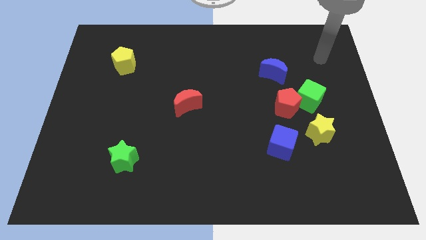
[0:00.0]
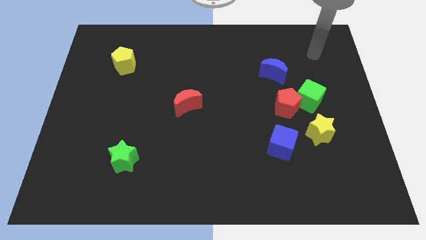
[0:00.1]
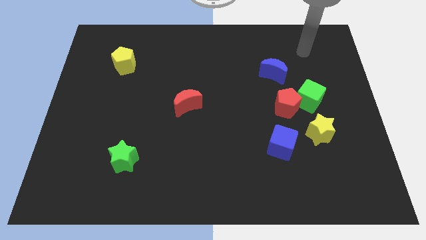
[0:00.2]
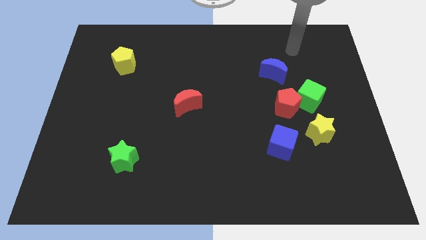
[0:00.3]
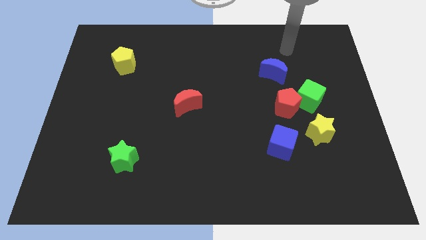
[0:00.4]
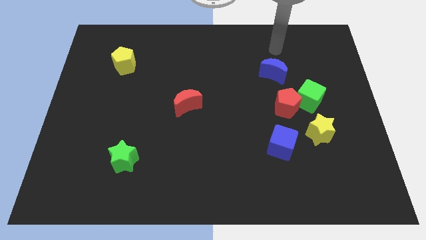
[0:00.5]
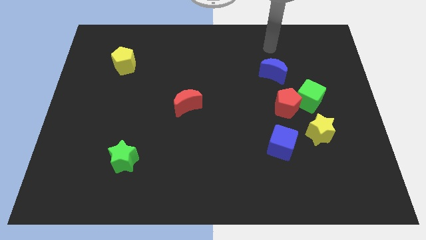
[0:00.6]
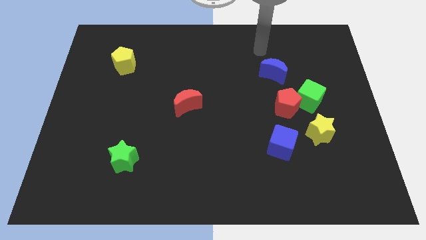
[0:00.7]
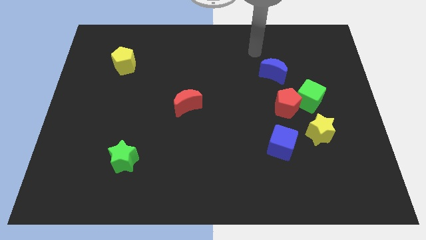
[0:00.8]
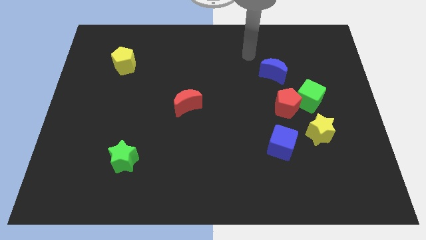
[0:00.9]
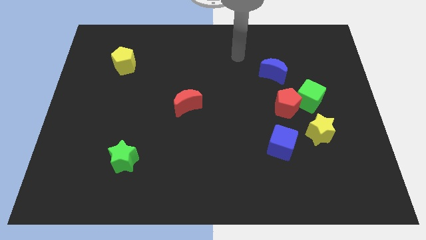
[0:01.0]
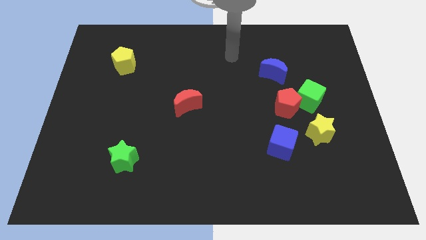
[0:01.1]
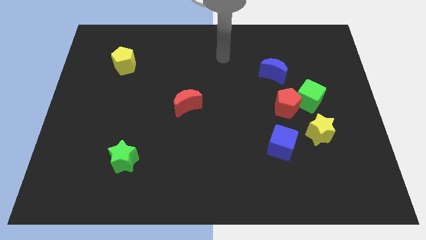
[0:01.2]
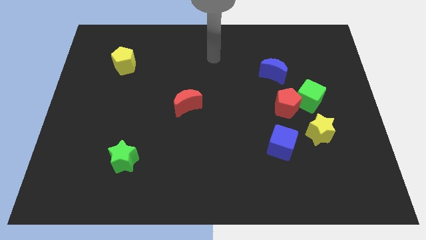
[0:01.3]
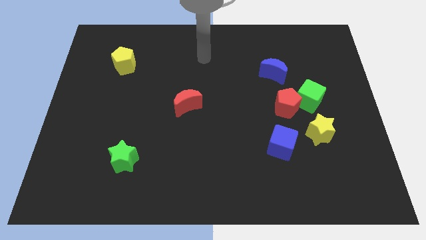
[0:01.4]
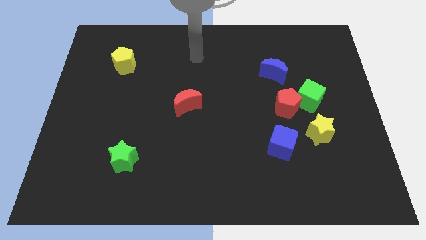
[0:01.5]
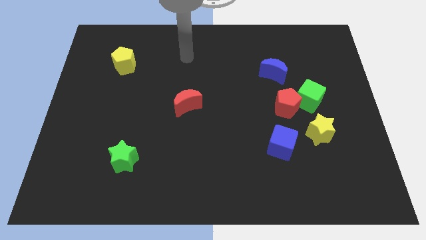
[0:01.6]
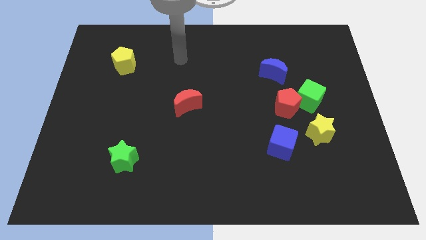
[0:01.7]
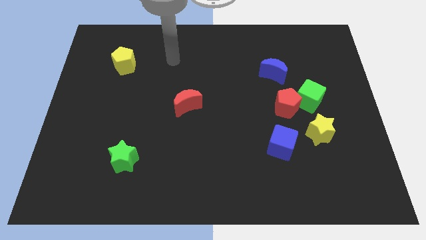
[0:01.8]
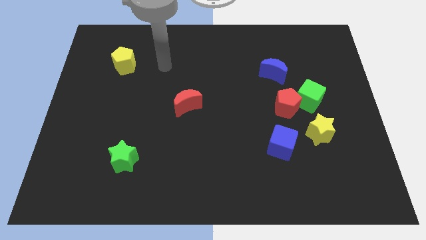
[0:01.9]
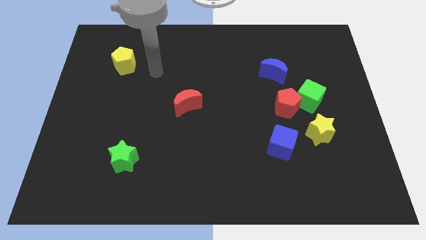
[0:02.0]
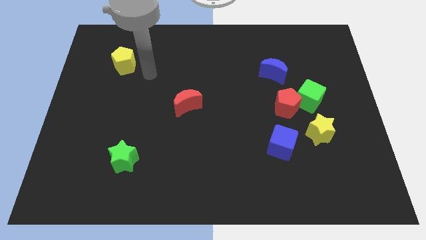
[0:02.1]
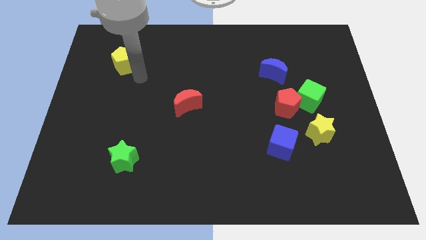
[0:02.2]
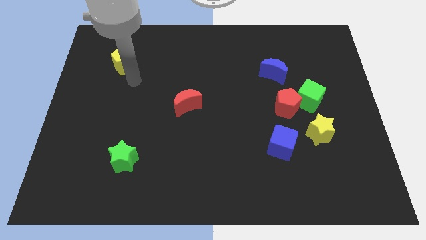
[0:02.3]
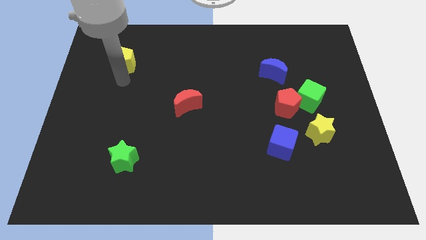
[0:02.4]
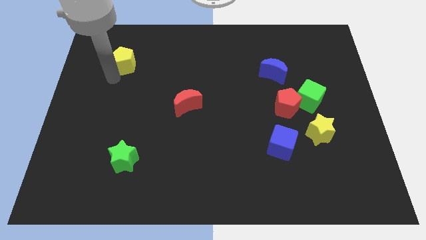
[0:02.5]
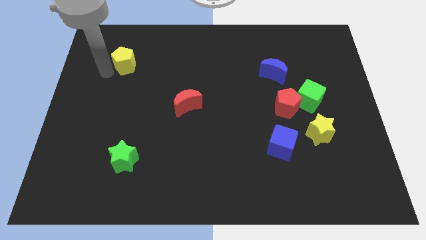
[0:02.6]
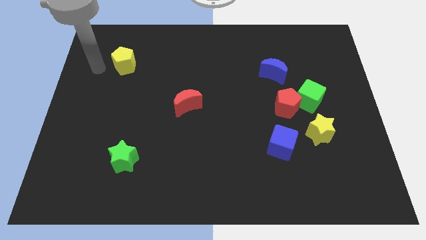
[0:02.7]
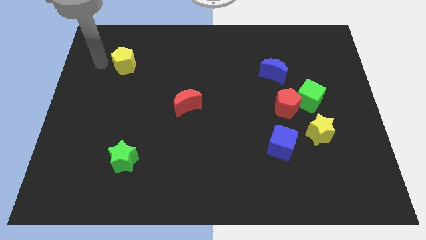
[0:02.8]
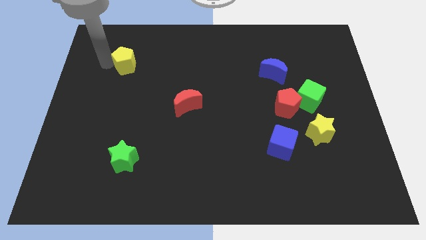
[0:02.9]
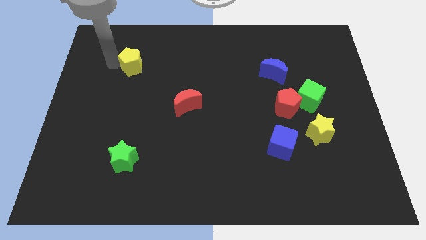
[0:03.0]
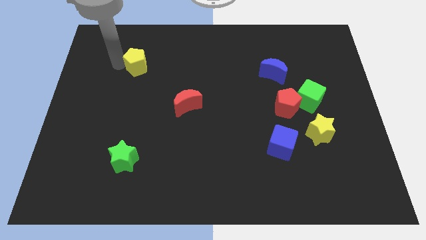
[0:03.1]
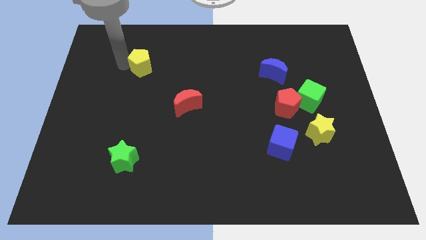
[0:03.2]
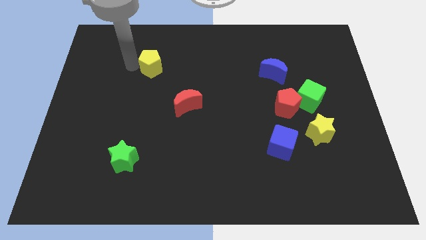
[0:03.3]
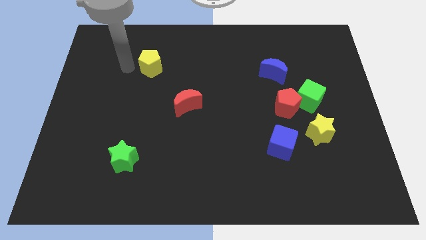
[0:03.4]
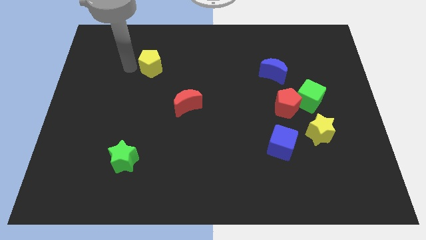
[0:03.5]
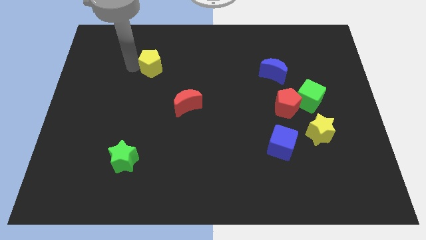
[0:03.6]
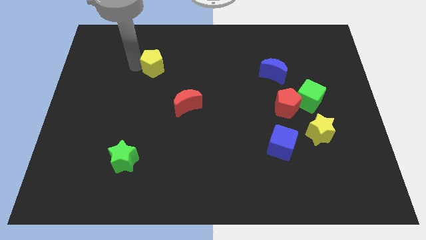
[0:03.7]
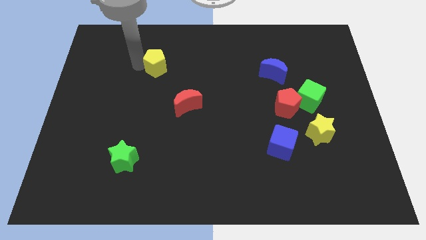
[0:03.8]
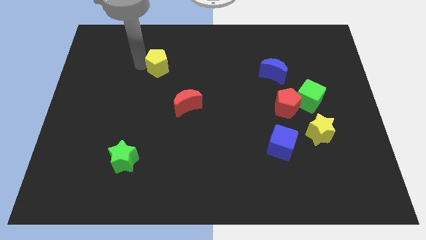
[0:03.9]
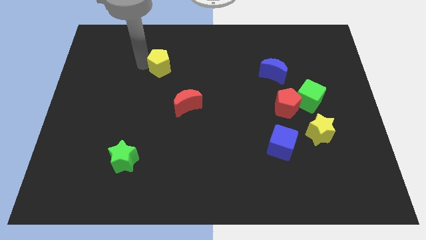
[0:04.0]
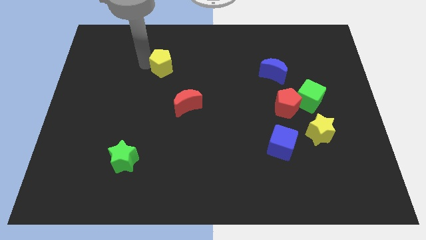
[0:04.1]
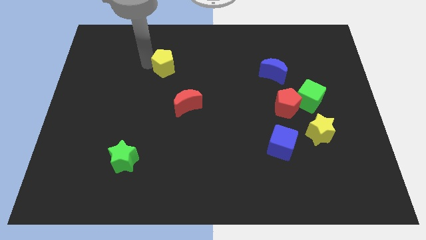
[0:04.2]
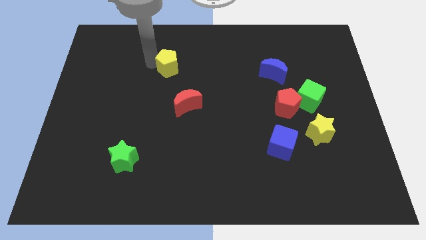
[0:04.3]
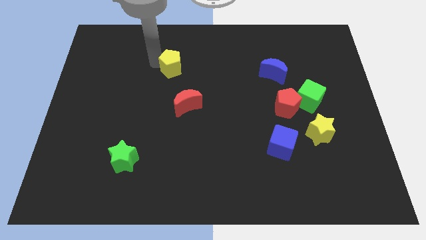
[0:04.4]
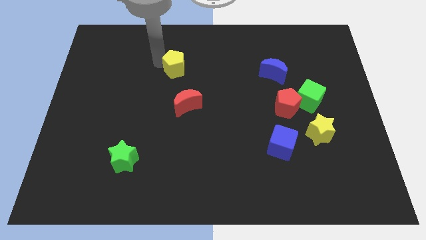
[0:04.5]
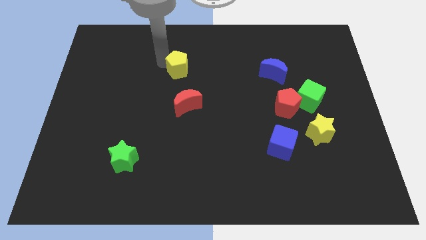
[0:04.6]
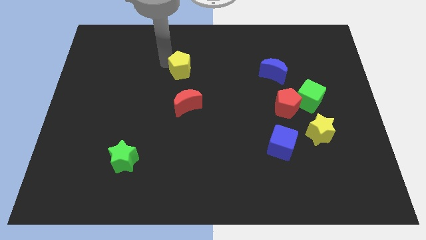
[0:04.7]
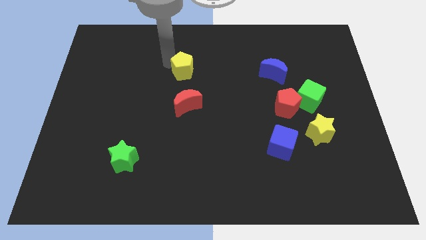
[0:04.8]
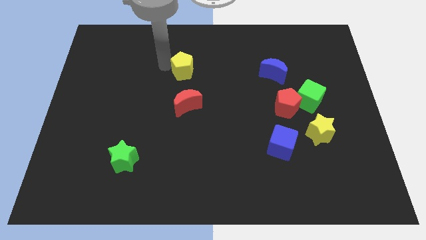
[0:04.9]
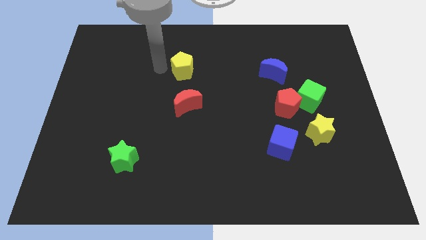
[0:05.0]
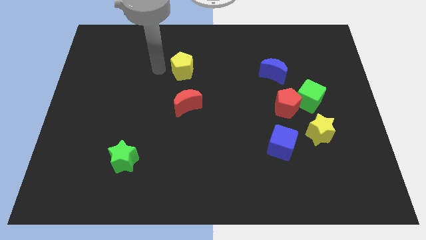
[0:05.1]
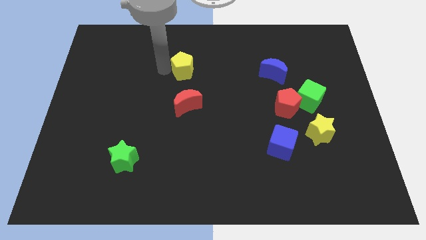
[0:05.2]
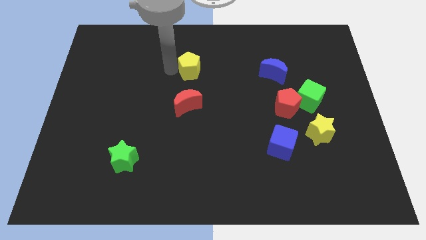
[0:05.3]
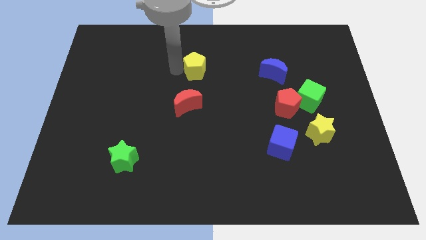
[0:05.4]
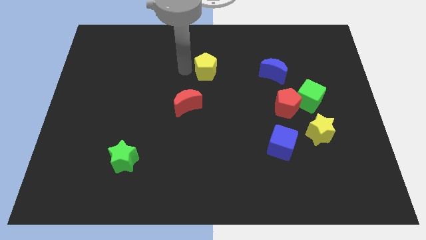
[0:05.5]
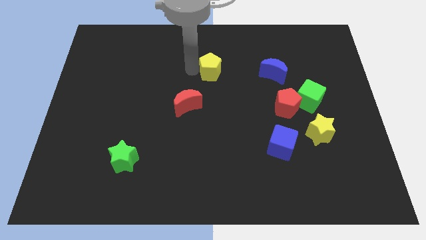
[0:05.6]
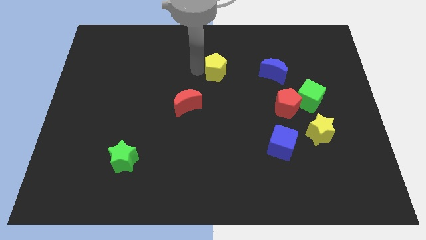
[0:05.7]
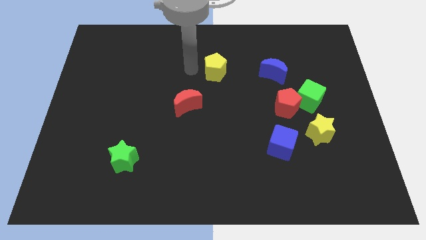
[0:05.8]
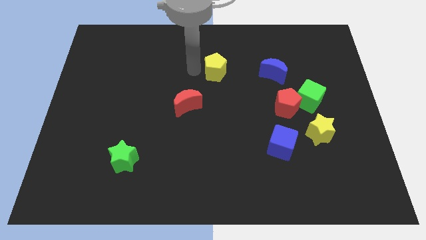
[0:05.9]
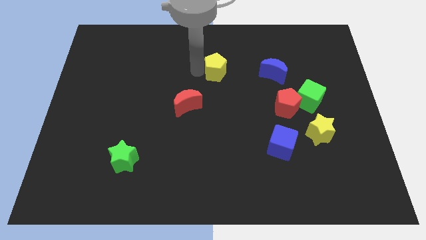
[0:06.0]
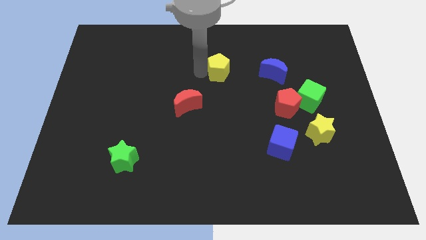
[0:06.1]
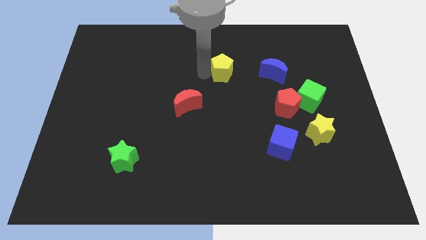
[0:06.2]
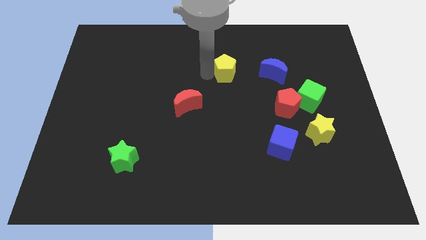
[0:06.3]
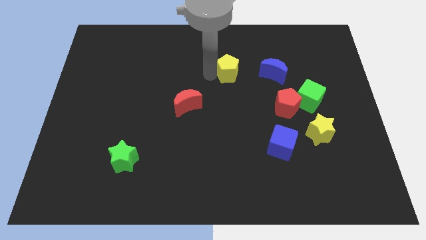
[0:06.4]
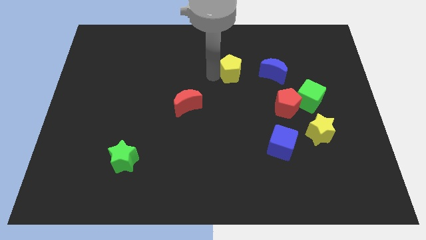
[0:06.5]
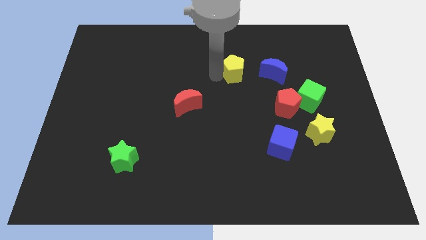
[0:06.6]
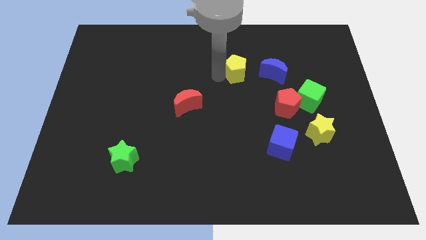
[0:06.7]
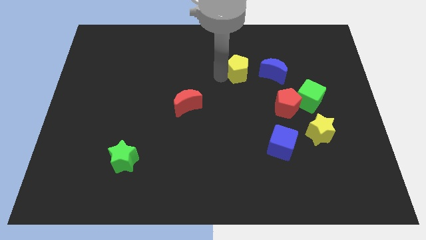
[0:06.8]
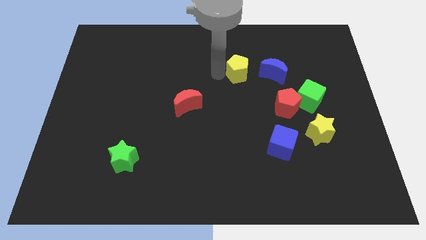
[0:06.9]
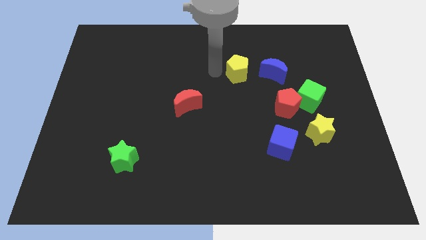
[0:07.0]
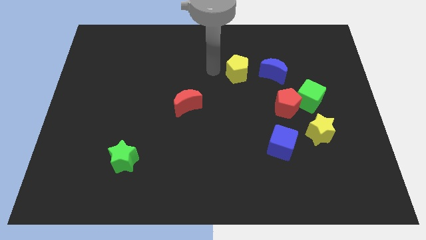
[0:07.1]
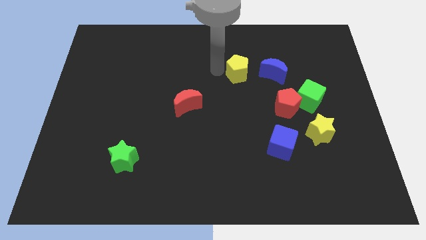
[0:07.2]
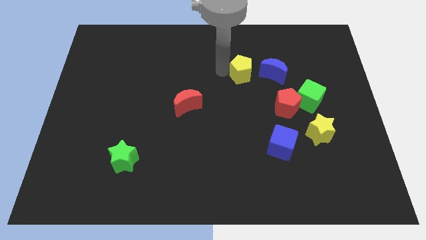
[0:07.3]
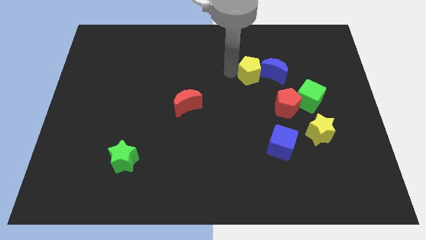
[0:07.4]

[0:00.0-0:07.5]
slide the yellow pentagon to the blue moon
